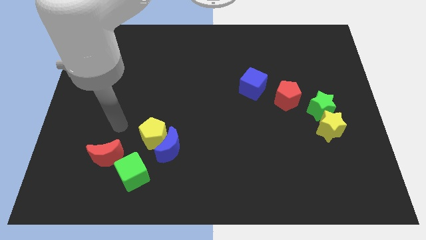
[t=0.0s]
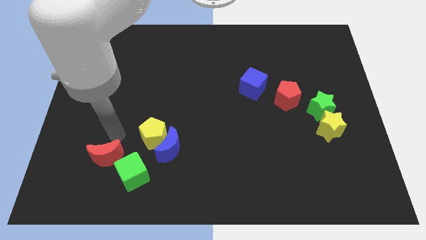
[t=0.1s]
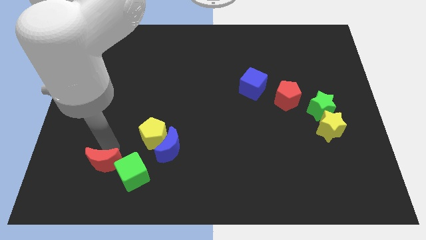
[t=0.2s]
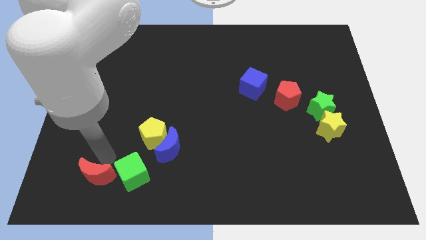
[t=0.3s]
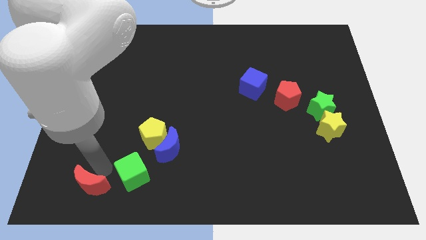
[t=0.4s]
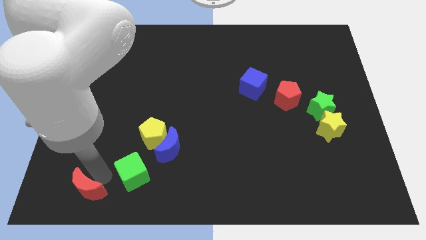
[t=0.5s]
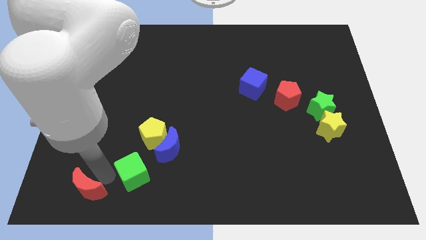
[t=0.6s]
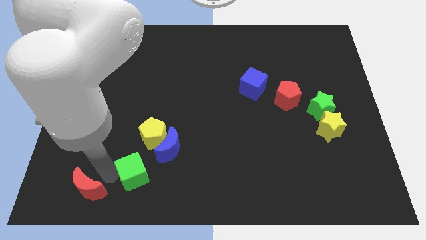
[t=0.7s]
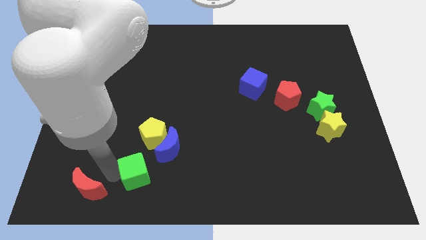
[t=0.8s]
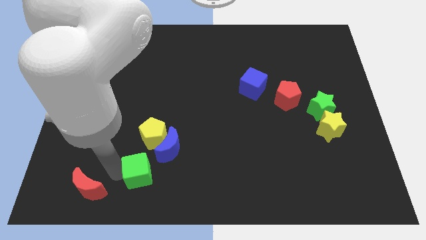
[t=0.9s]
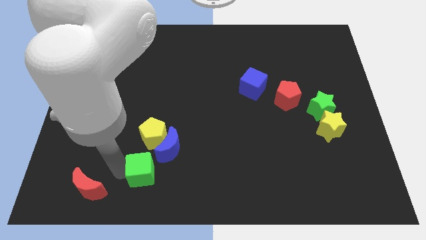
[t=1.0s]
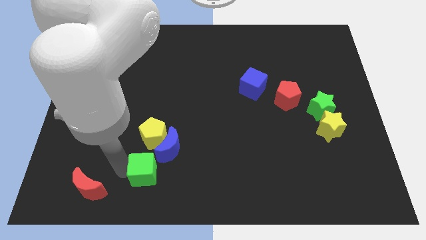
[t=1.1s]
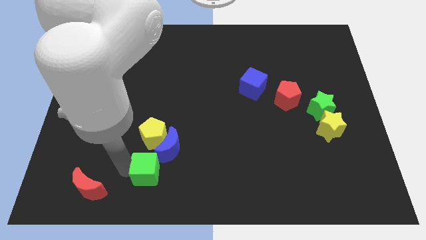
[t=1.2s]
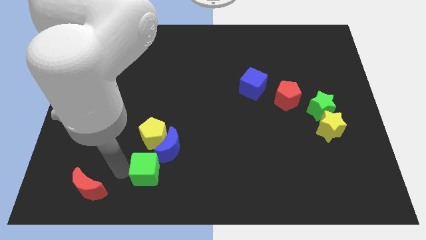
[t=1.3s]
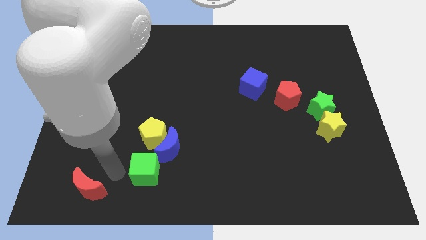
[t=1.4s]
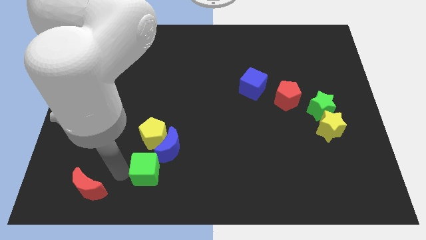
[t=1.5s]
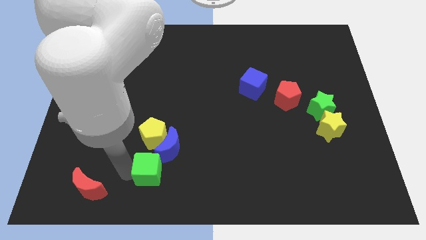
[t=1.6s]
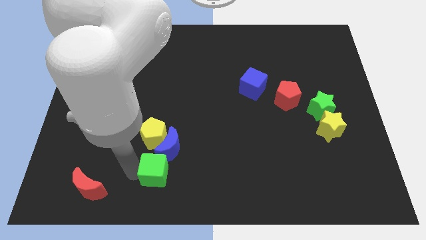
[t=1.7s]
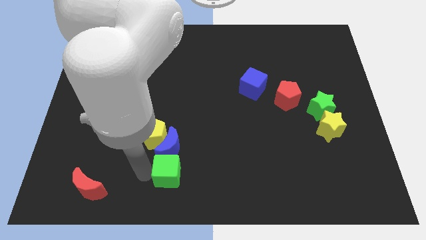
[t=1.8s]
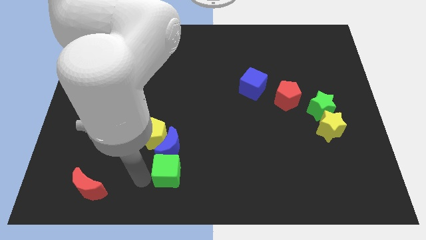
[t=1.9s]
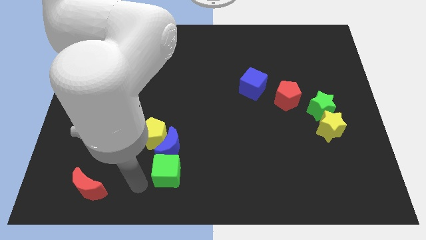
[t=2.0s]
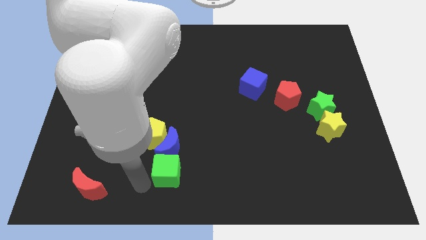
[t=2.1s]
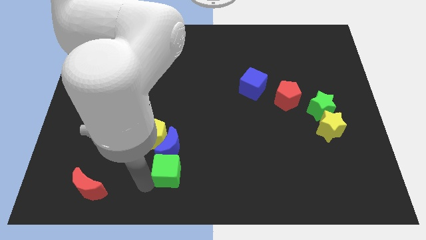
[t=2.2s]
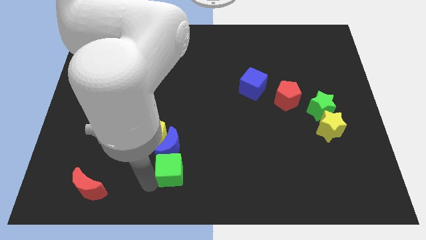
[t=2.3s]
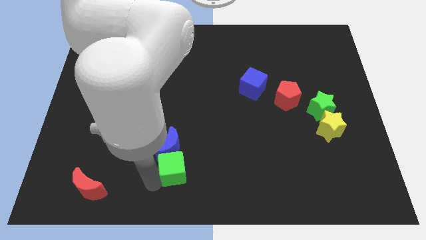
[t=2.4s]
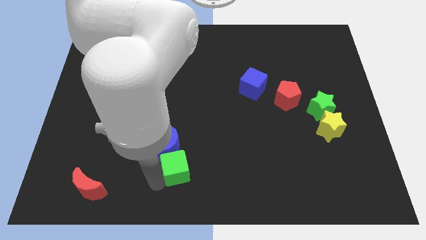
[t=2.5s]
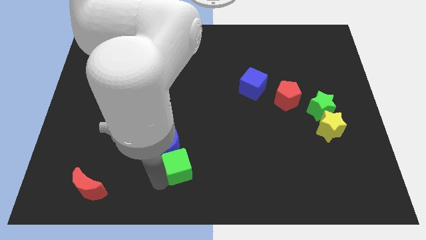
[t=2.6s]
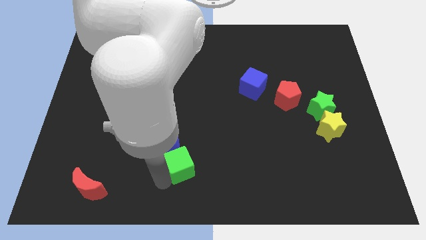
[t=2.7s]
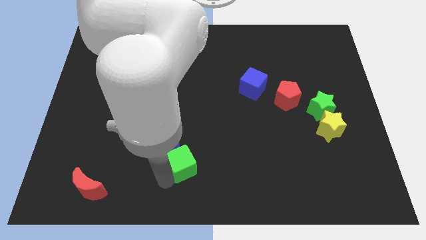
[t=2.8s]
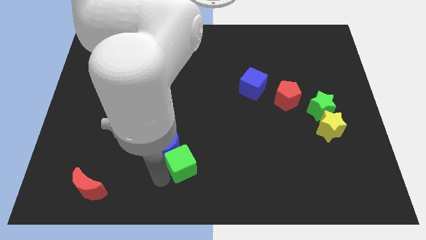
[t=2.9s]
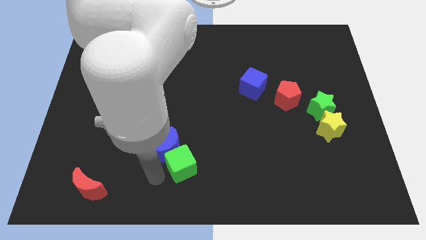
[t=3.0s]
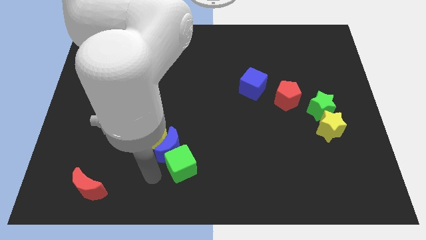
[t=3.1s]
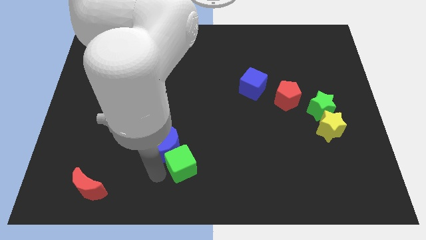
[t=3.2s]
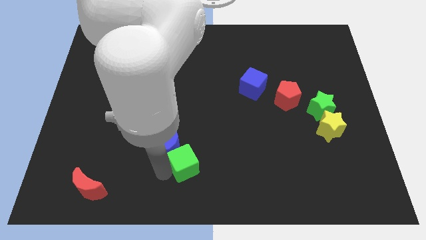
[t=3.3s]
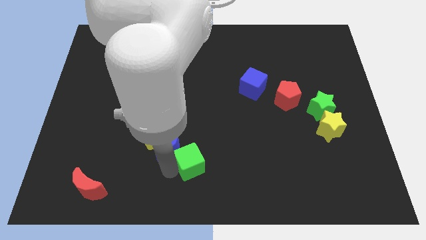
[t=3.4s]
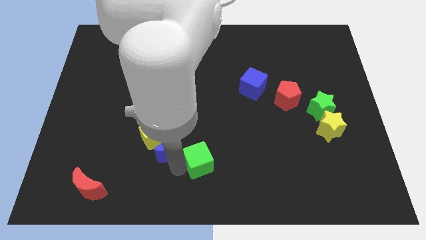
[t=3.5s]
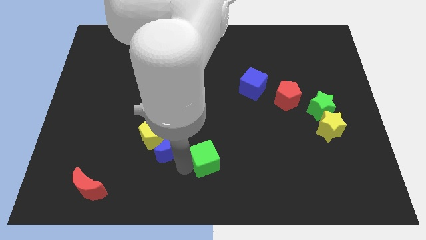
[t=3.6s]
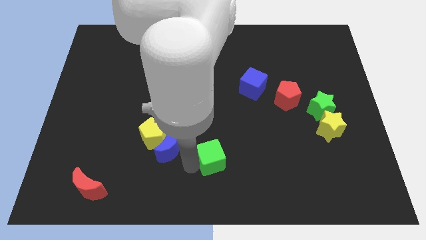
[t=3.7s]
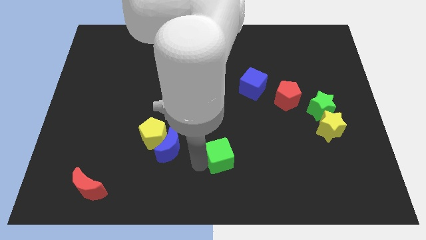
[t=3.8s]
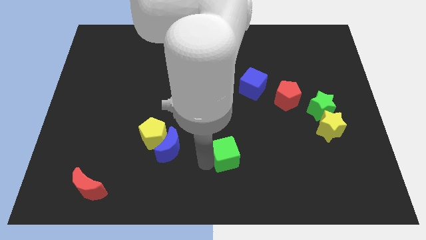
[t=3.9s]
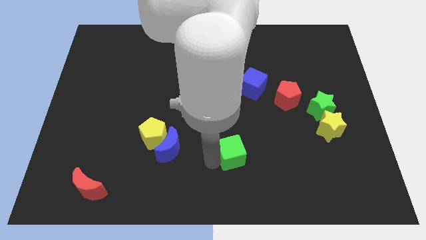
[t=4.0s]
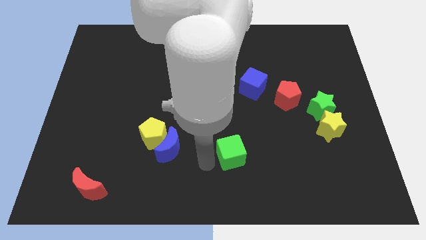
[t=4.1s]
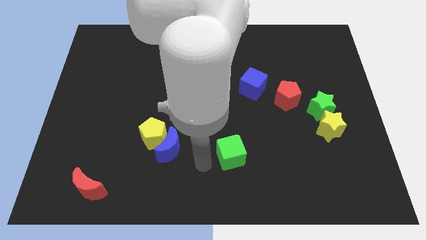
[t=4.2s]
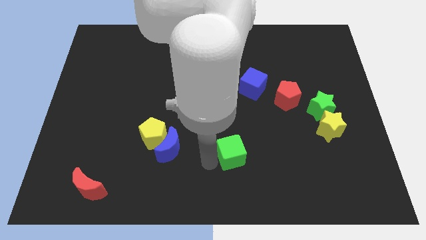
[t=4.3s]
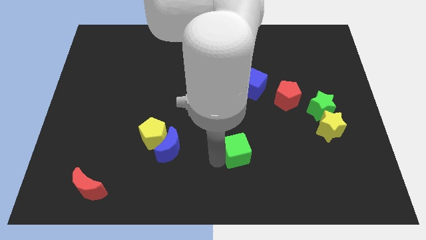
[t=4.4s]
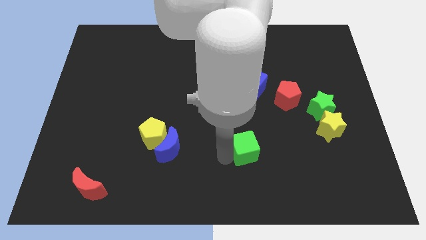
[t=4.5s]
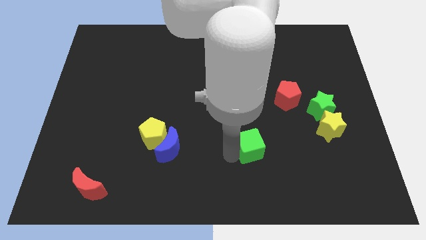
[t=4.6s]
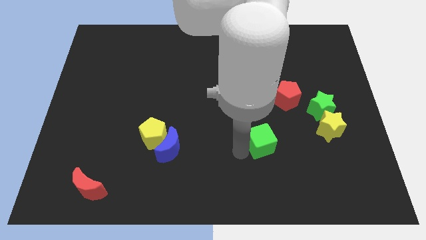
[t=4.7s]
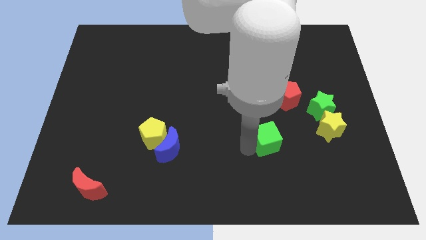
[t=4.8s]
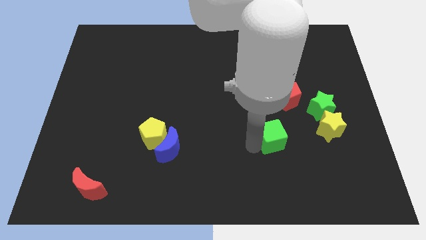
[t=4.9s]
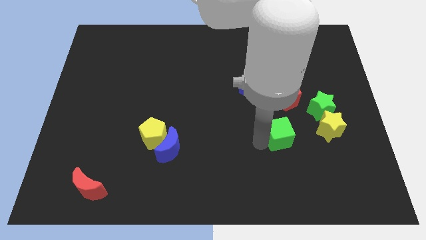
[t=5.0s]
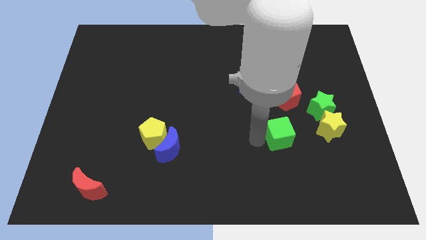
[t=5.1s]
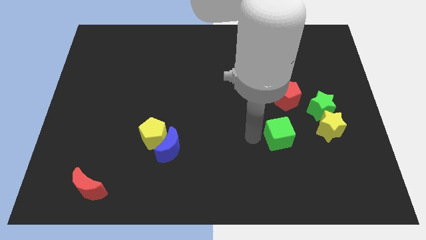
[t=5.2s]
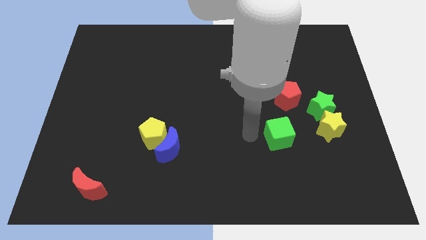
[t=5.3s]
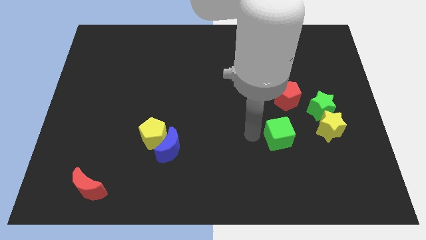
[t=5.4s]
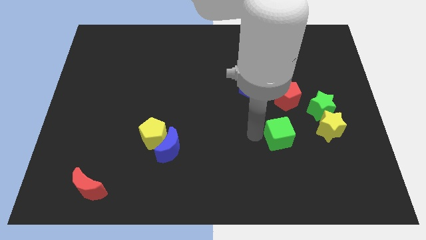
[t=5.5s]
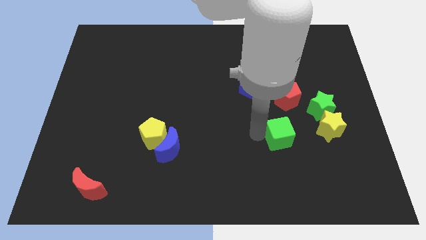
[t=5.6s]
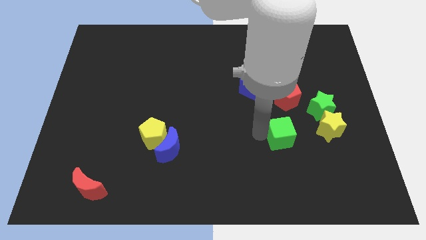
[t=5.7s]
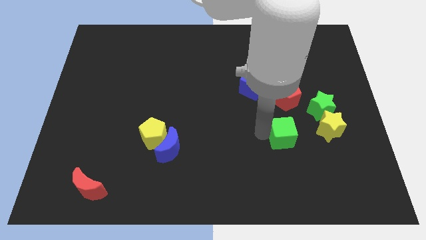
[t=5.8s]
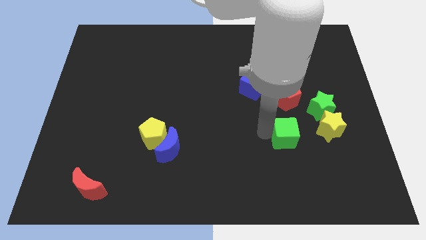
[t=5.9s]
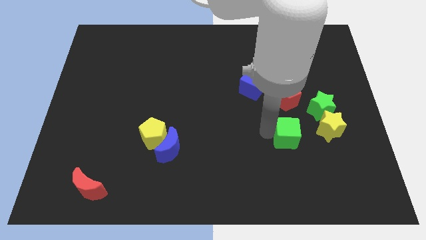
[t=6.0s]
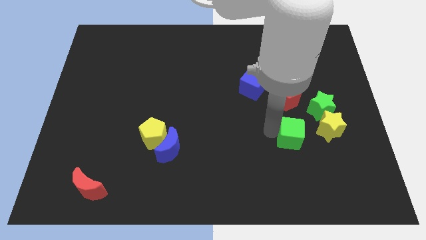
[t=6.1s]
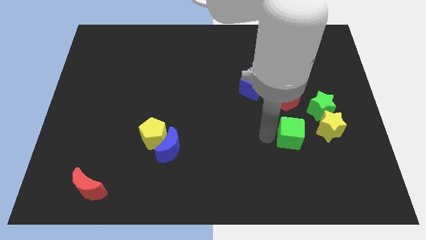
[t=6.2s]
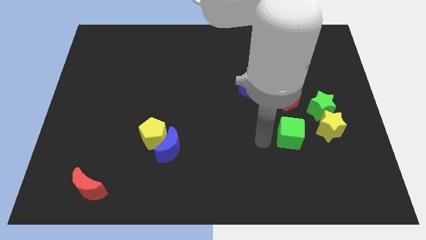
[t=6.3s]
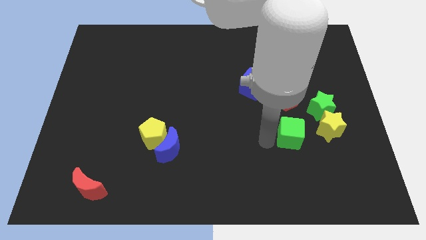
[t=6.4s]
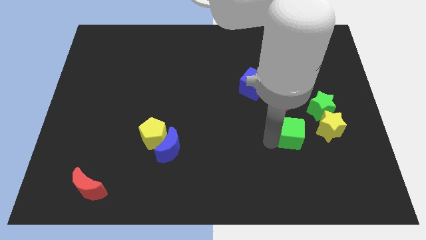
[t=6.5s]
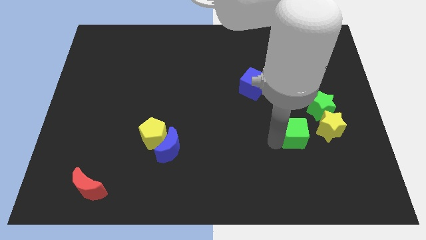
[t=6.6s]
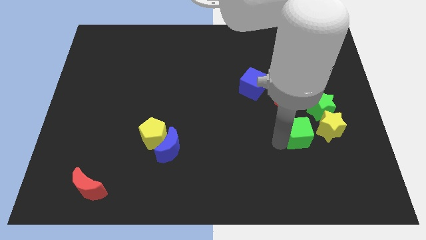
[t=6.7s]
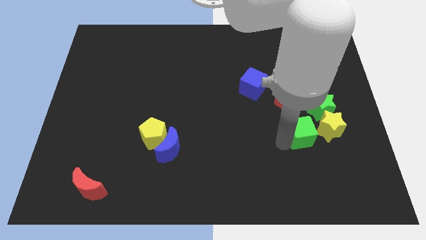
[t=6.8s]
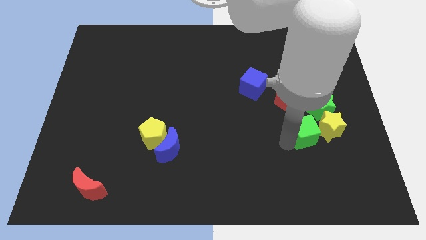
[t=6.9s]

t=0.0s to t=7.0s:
slide the green cube to the yellow star

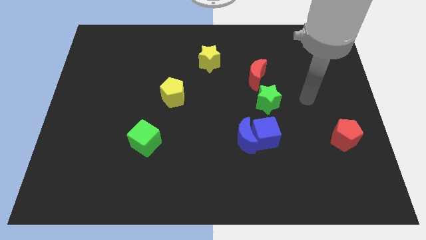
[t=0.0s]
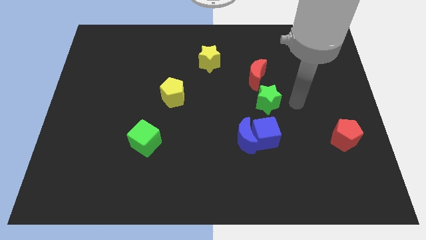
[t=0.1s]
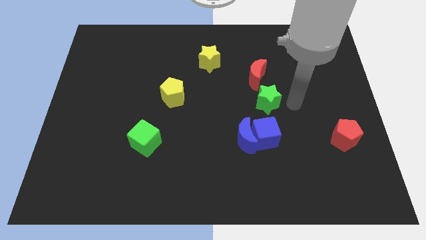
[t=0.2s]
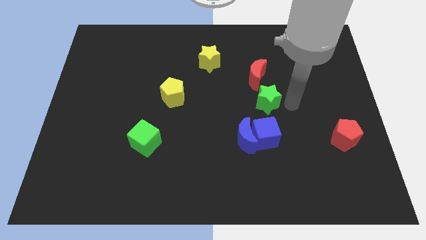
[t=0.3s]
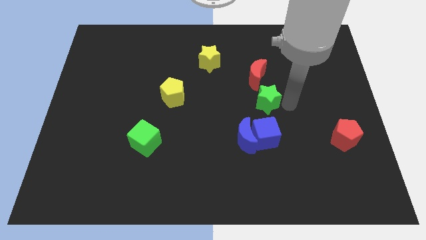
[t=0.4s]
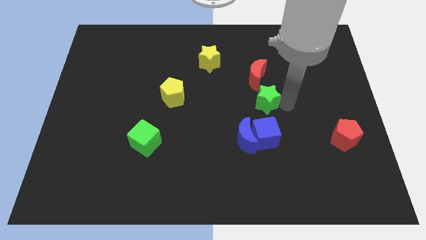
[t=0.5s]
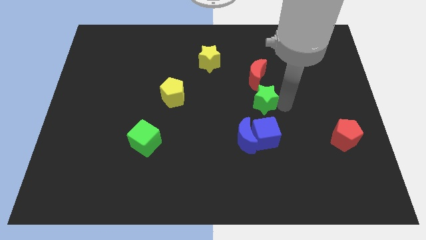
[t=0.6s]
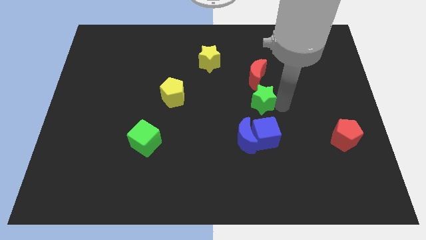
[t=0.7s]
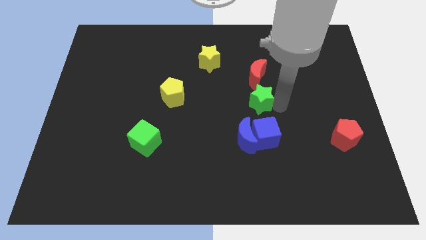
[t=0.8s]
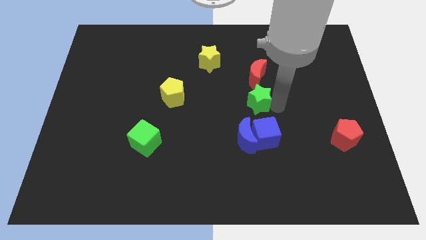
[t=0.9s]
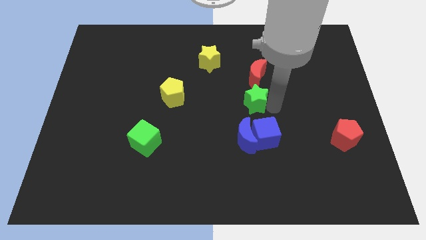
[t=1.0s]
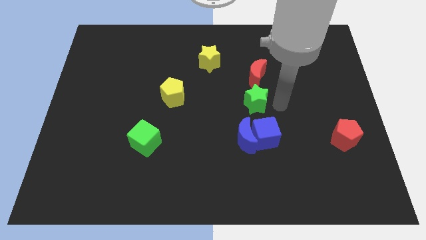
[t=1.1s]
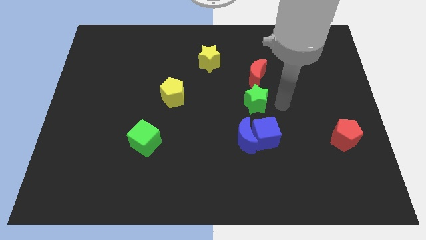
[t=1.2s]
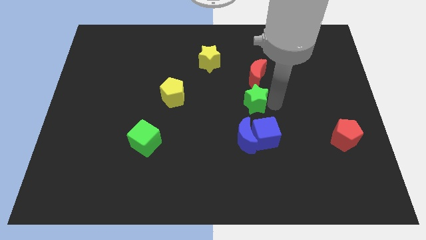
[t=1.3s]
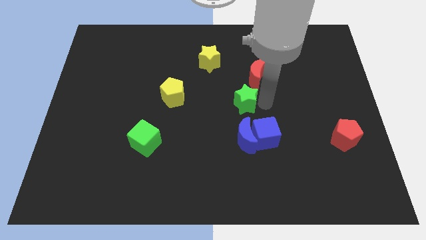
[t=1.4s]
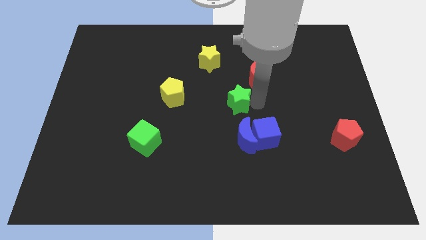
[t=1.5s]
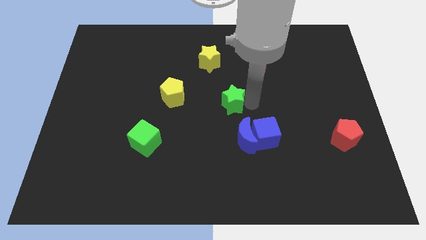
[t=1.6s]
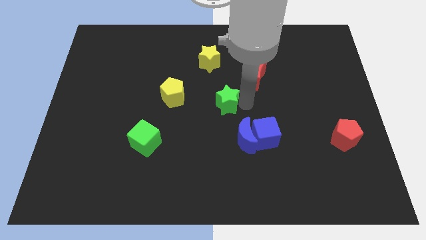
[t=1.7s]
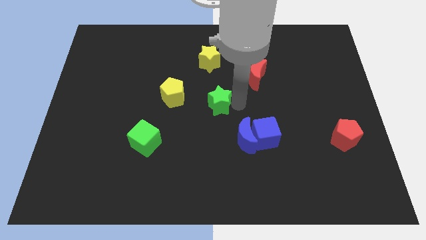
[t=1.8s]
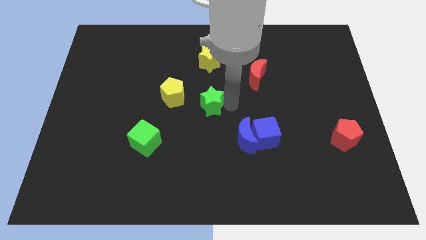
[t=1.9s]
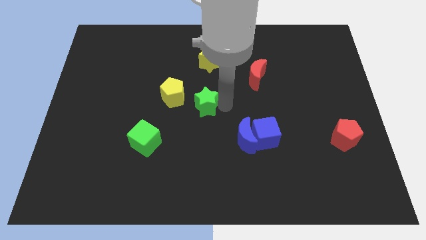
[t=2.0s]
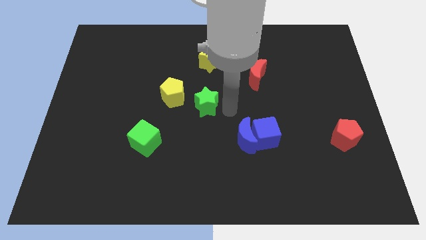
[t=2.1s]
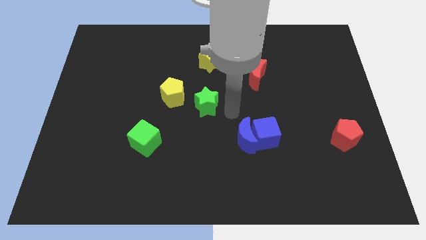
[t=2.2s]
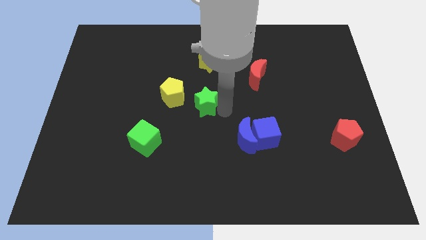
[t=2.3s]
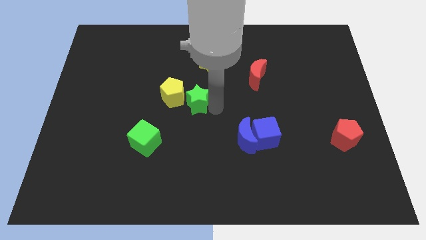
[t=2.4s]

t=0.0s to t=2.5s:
put the green star next to the yellow pentagon
